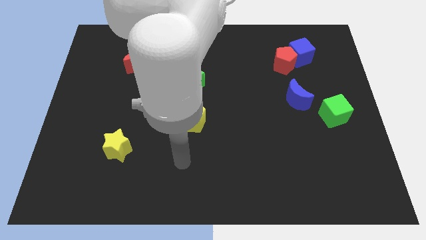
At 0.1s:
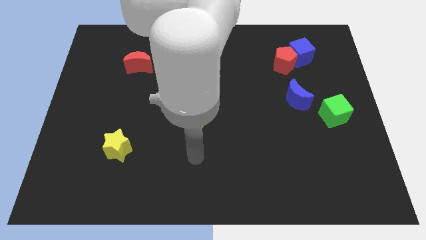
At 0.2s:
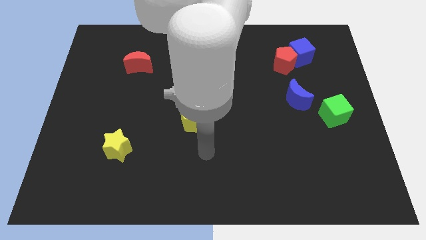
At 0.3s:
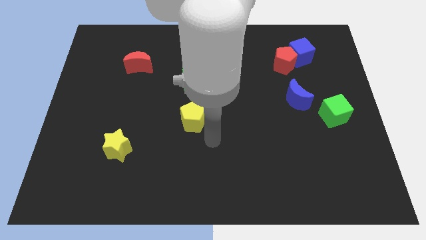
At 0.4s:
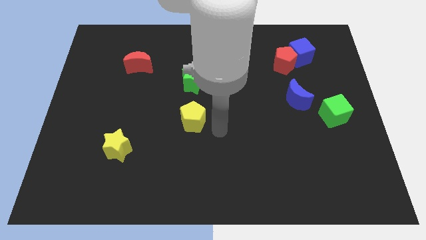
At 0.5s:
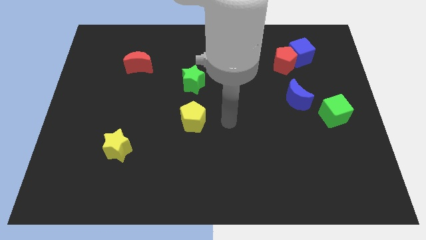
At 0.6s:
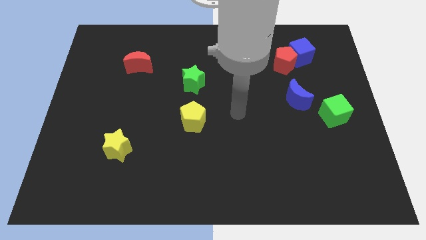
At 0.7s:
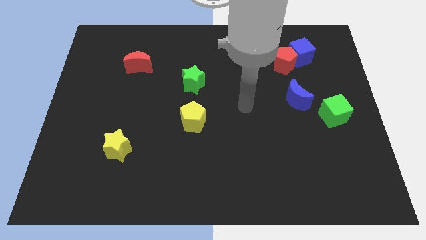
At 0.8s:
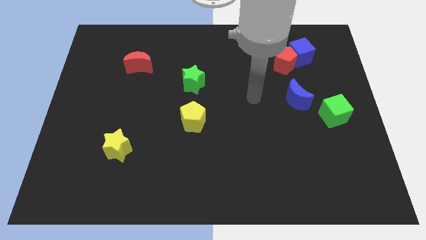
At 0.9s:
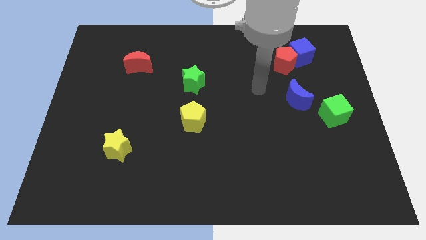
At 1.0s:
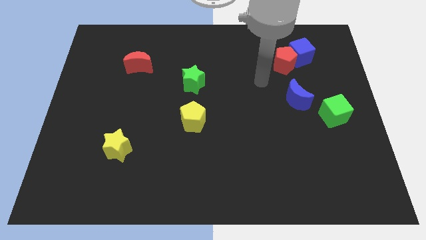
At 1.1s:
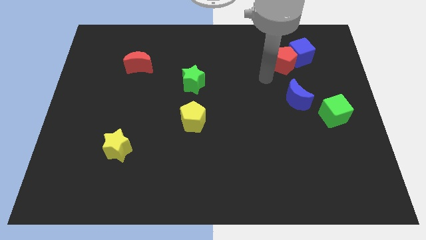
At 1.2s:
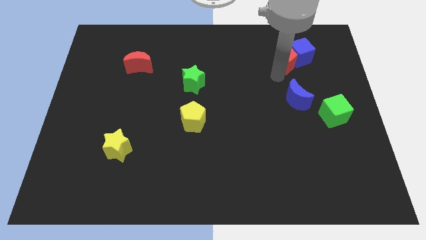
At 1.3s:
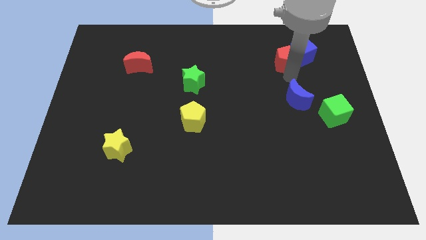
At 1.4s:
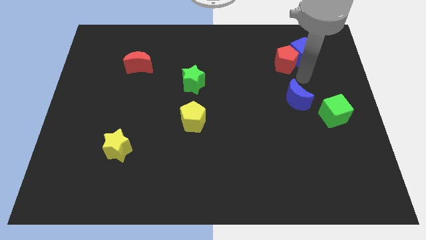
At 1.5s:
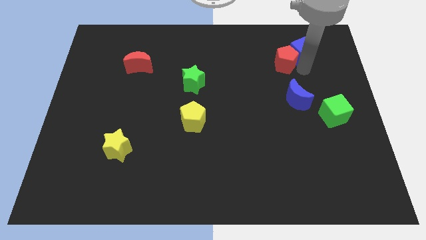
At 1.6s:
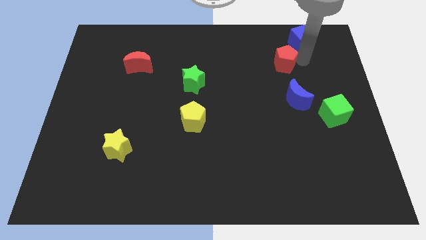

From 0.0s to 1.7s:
pull the red pentagon apart from the blue cube

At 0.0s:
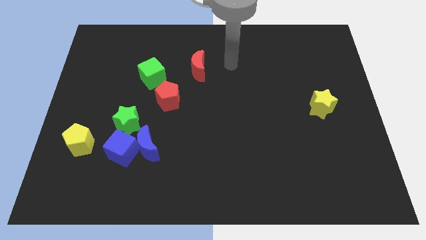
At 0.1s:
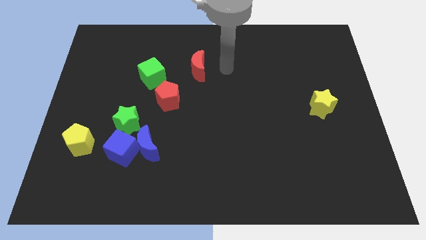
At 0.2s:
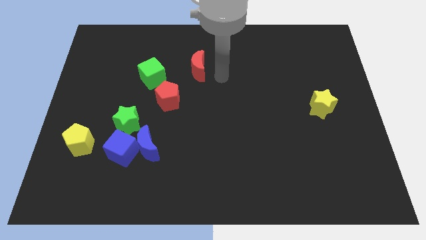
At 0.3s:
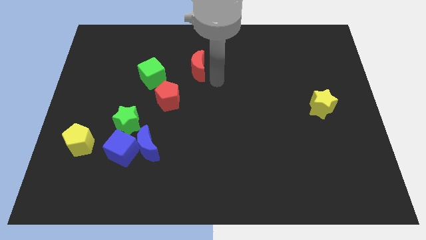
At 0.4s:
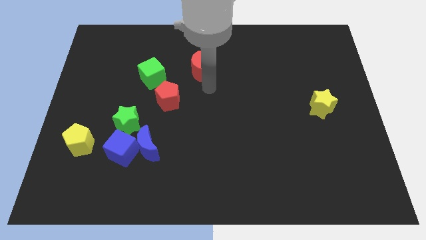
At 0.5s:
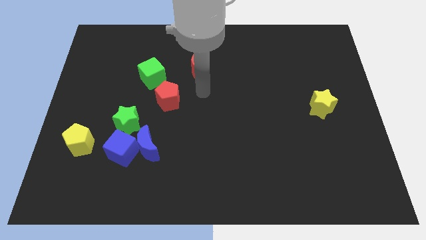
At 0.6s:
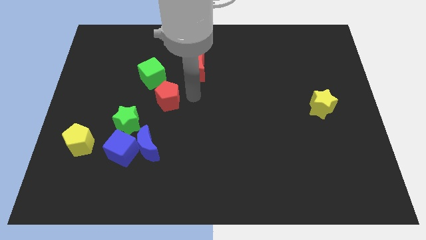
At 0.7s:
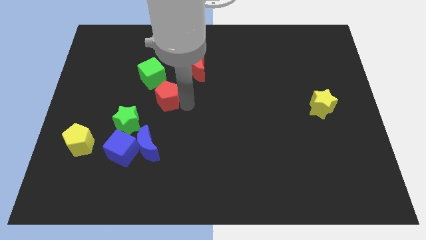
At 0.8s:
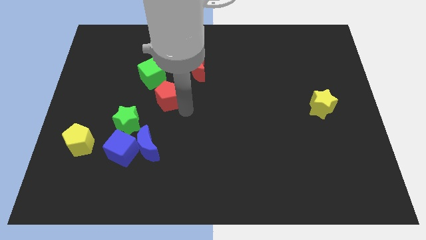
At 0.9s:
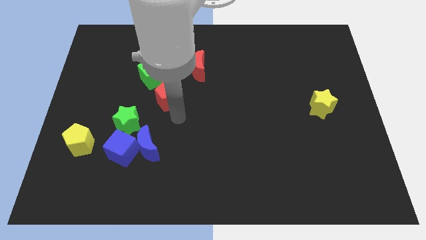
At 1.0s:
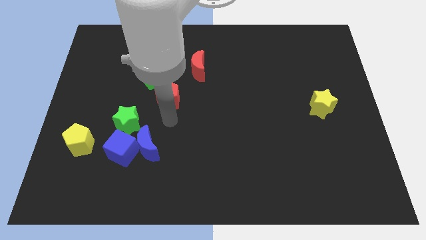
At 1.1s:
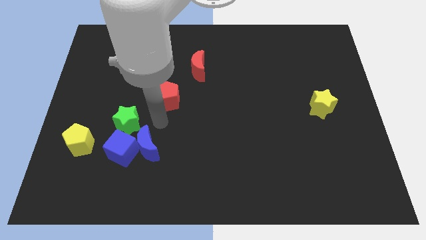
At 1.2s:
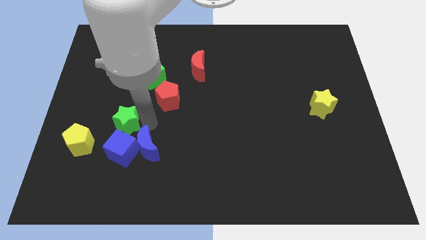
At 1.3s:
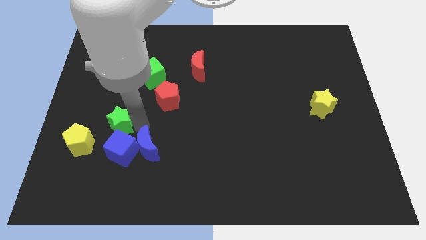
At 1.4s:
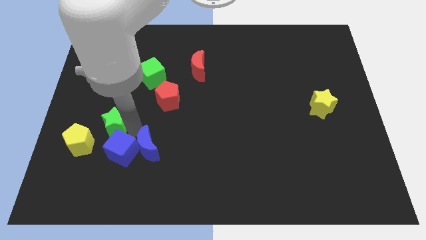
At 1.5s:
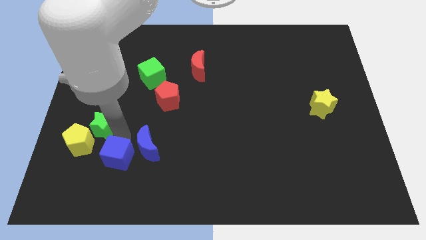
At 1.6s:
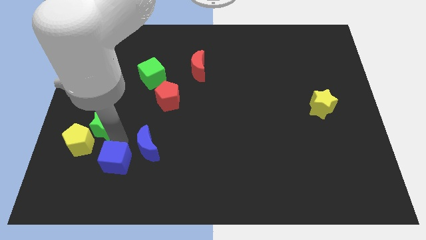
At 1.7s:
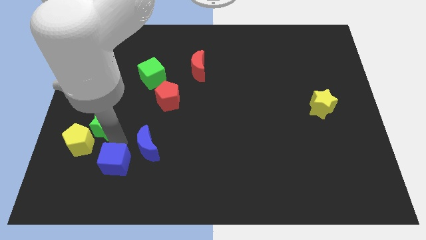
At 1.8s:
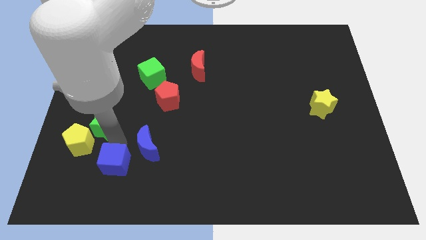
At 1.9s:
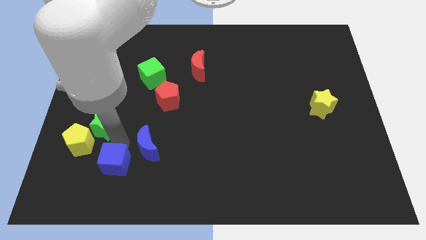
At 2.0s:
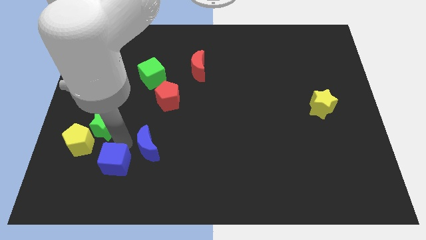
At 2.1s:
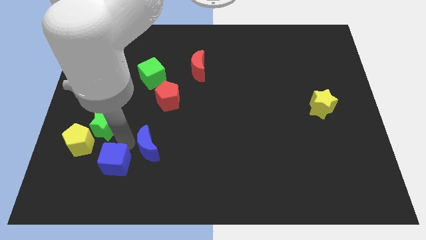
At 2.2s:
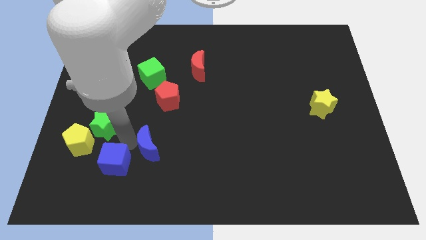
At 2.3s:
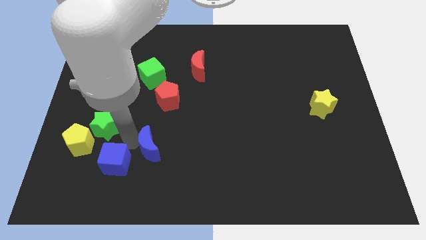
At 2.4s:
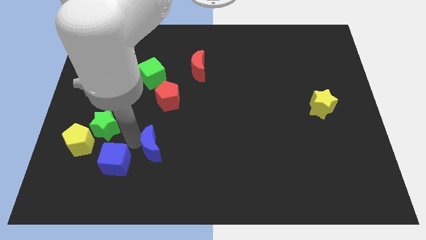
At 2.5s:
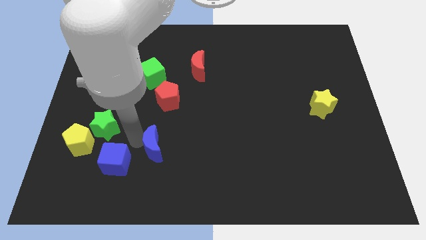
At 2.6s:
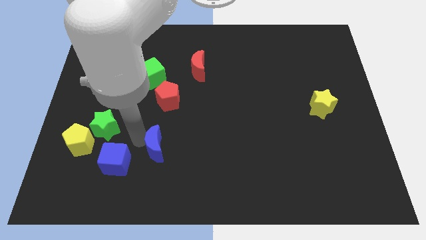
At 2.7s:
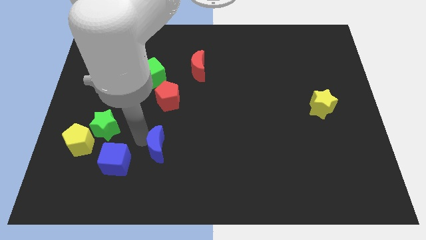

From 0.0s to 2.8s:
move the blue moon away from the blue cube and green star

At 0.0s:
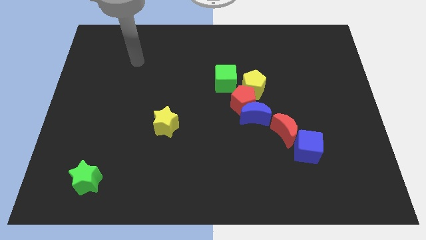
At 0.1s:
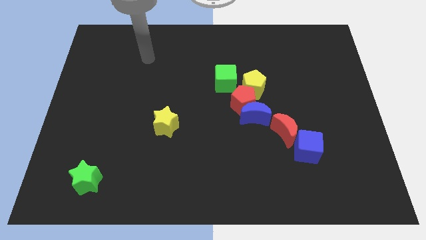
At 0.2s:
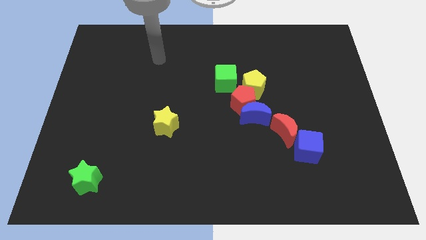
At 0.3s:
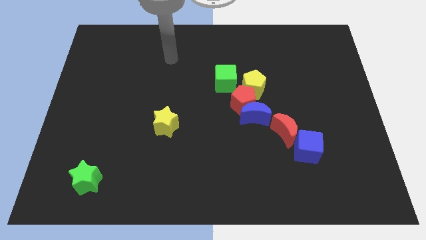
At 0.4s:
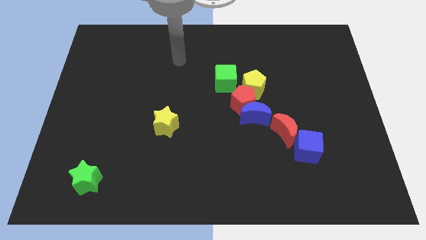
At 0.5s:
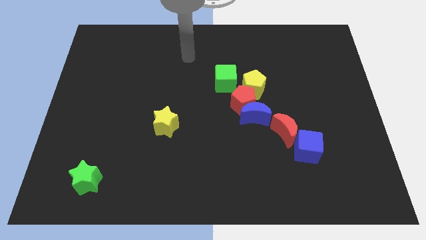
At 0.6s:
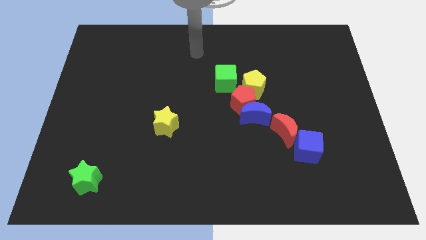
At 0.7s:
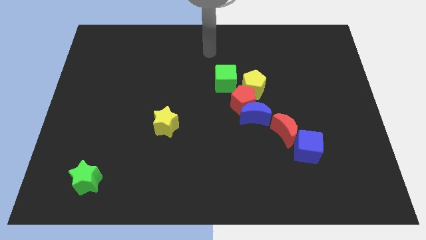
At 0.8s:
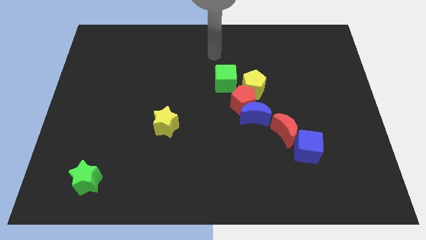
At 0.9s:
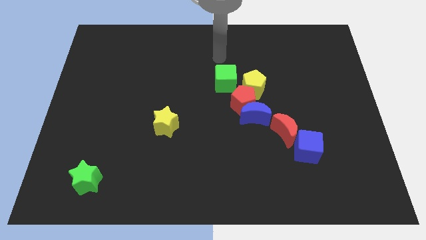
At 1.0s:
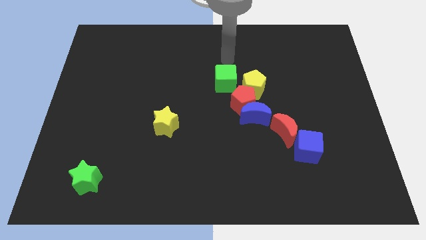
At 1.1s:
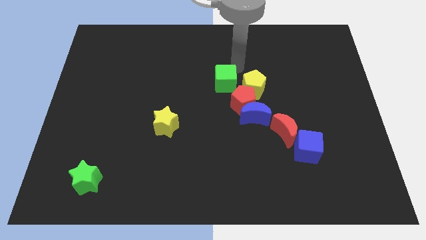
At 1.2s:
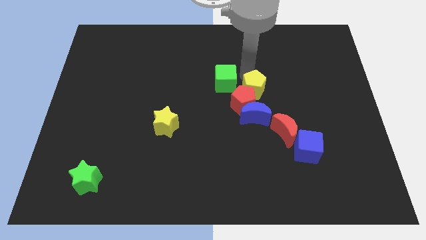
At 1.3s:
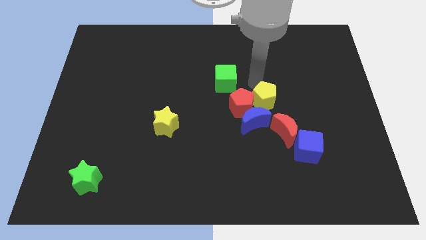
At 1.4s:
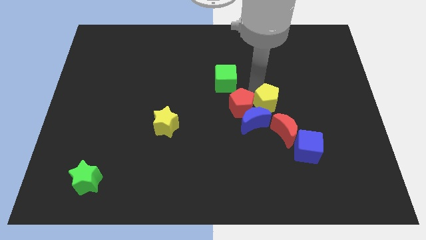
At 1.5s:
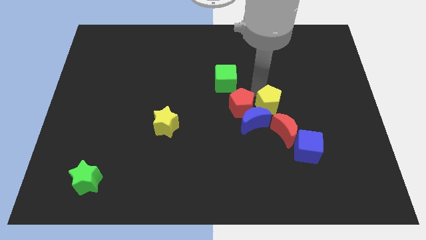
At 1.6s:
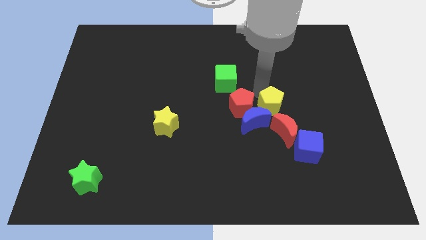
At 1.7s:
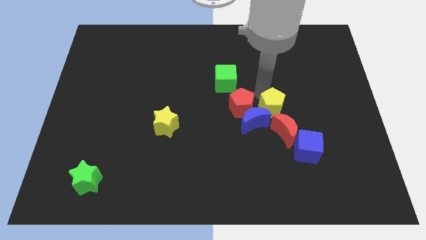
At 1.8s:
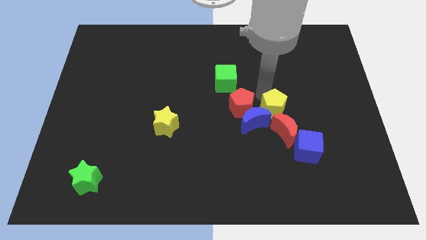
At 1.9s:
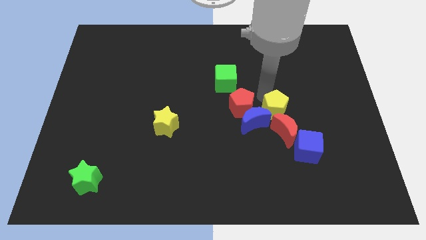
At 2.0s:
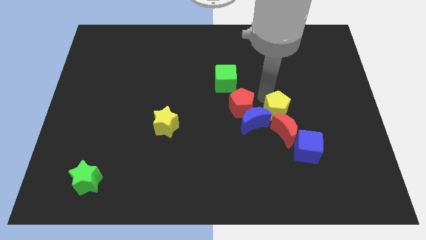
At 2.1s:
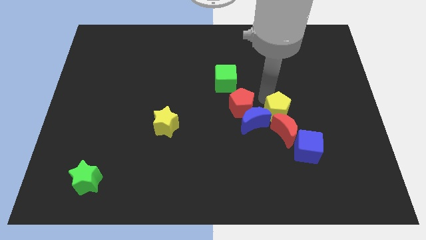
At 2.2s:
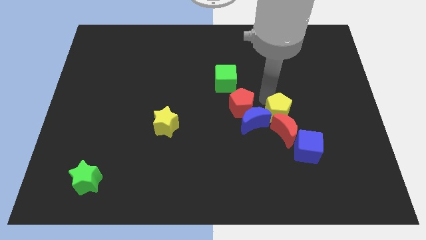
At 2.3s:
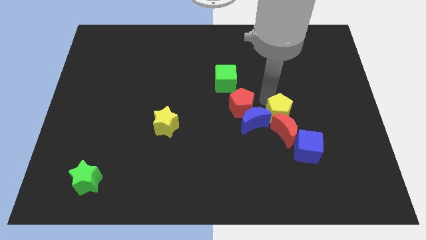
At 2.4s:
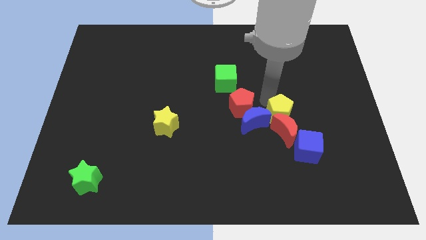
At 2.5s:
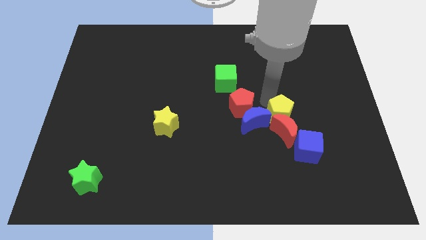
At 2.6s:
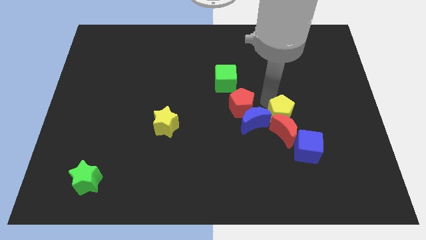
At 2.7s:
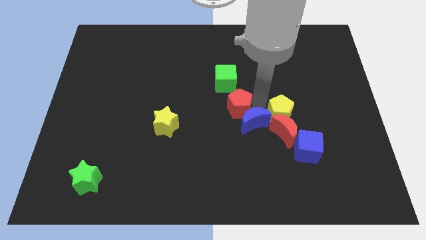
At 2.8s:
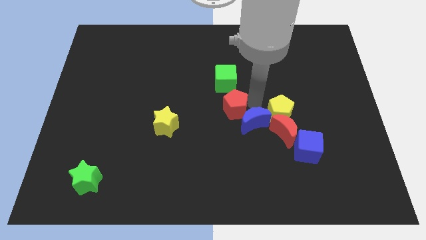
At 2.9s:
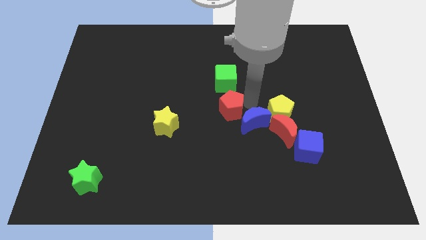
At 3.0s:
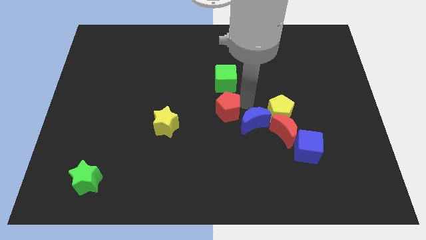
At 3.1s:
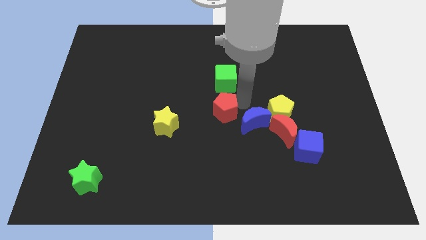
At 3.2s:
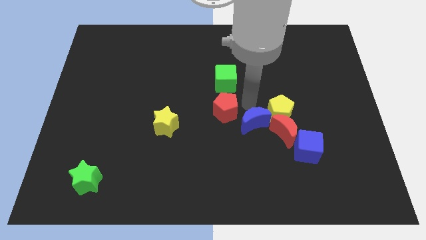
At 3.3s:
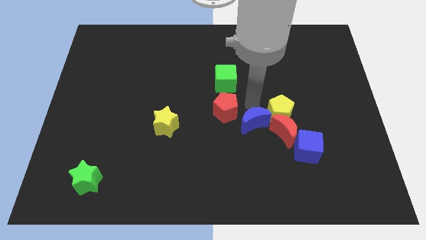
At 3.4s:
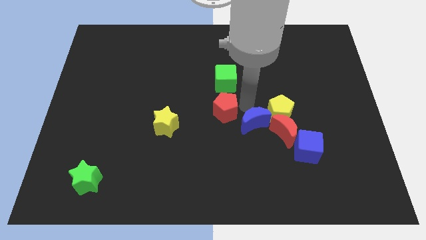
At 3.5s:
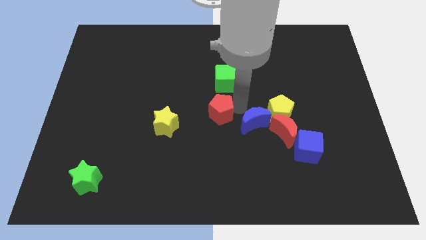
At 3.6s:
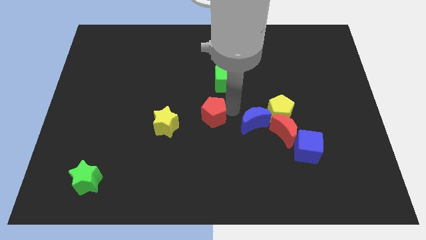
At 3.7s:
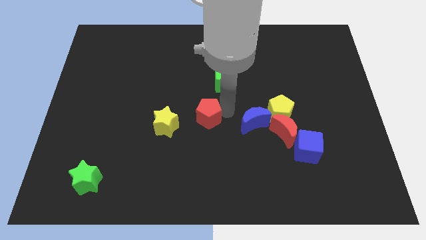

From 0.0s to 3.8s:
move the red pentagon away from the group of blocks

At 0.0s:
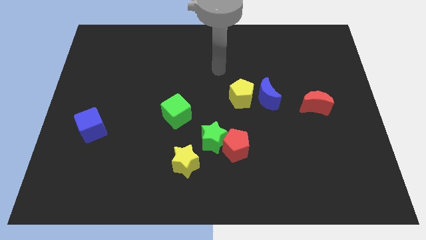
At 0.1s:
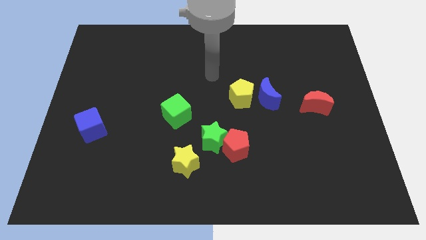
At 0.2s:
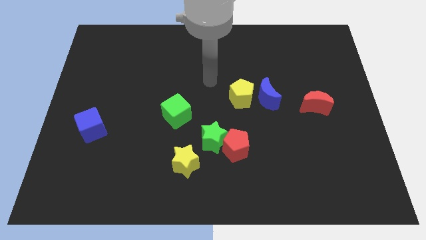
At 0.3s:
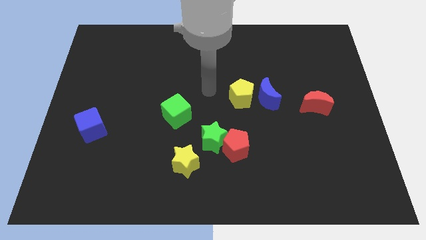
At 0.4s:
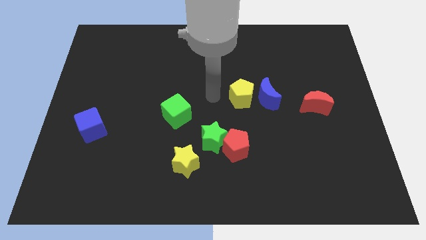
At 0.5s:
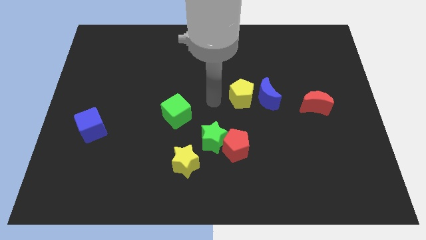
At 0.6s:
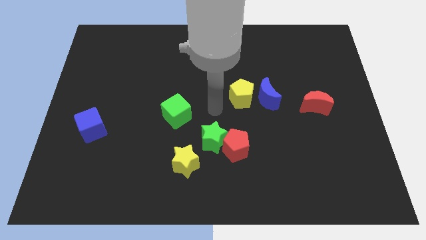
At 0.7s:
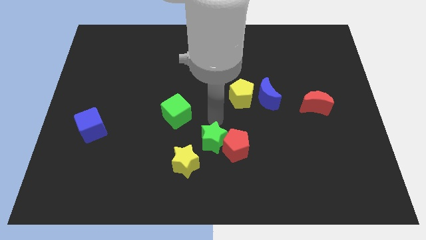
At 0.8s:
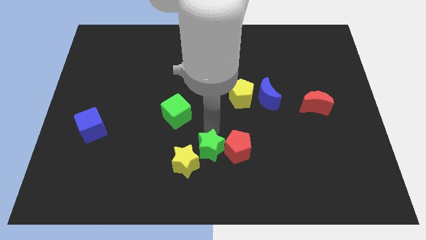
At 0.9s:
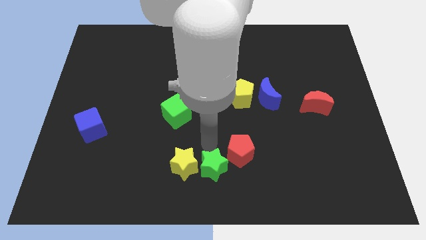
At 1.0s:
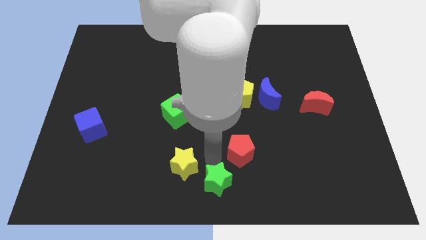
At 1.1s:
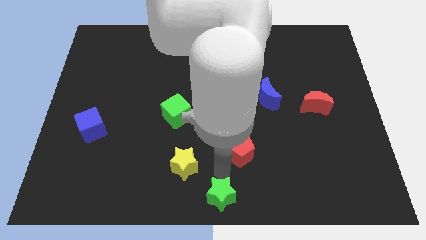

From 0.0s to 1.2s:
pull the red pentagon apart from the green star
